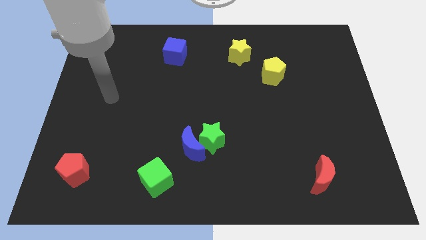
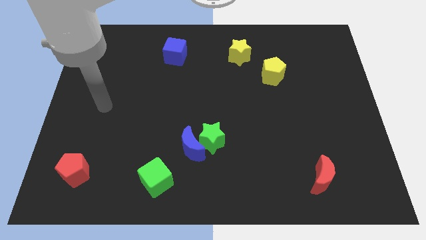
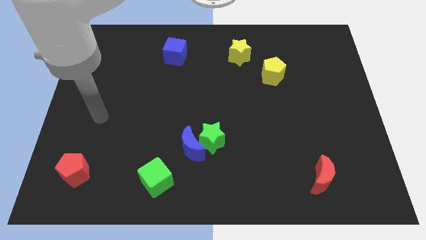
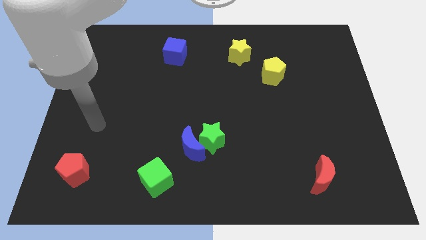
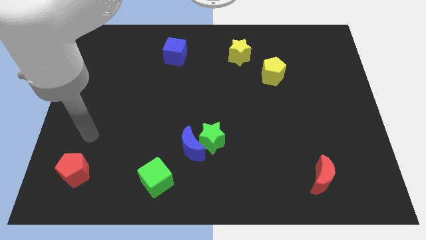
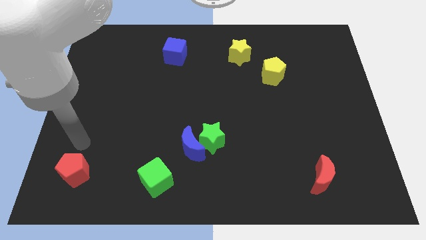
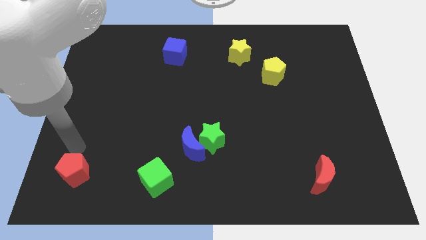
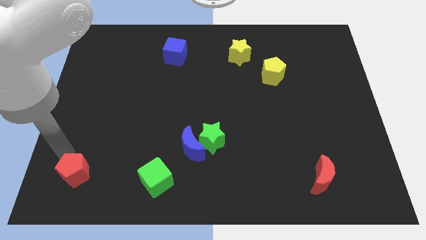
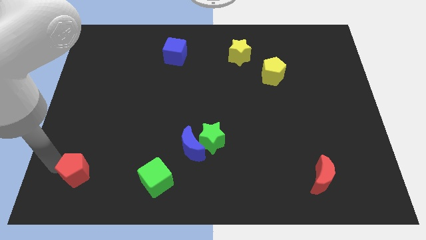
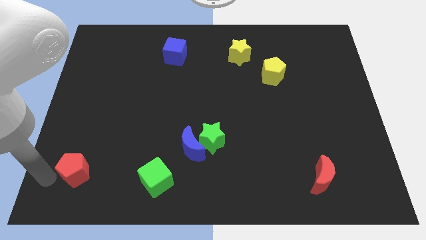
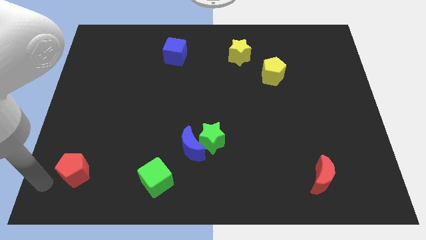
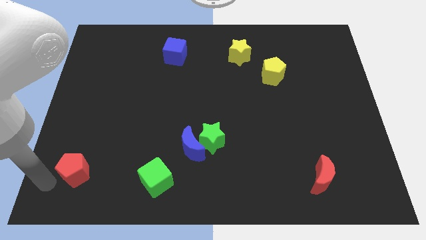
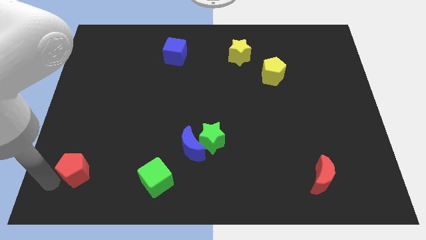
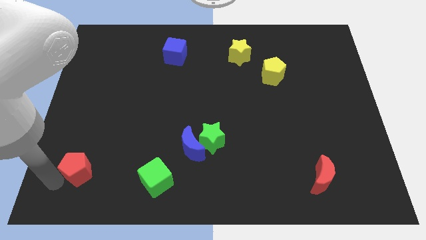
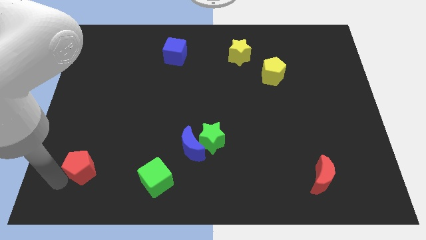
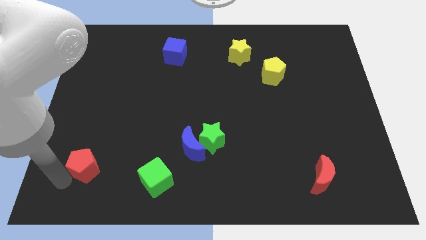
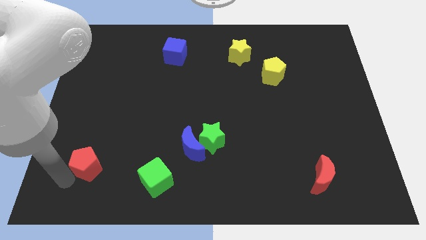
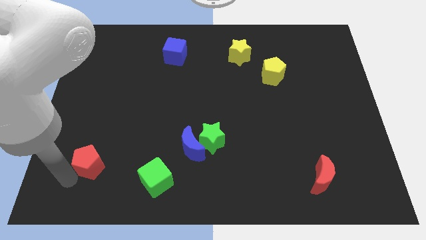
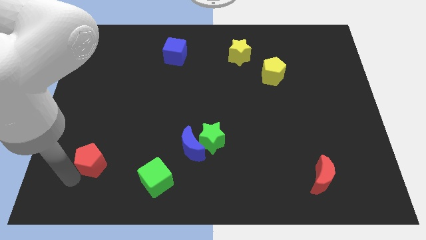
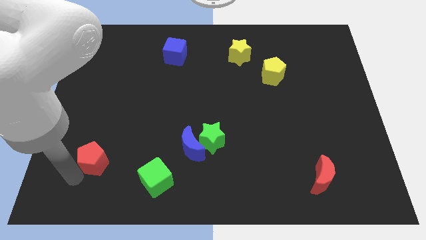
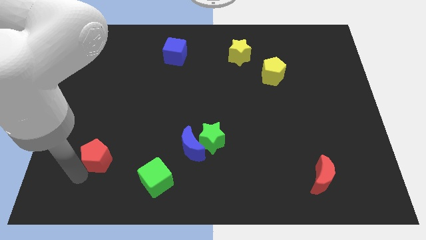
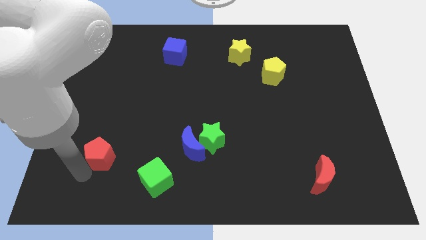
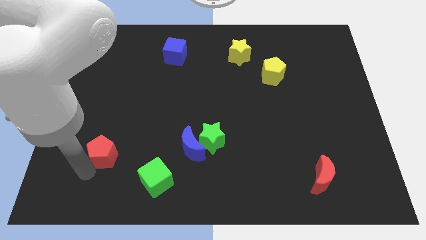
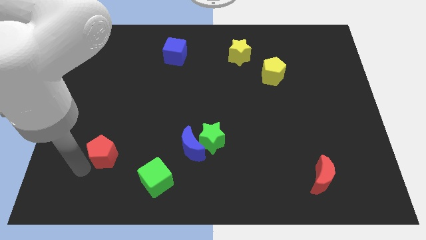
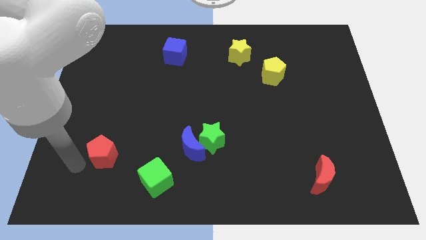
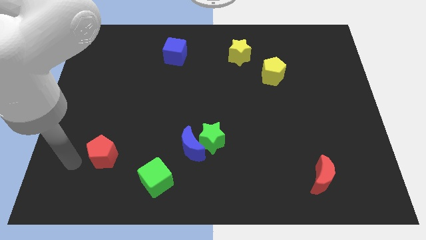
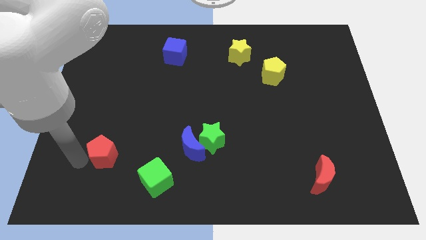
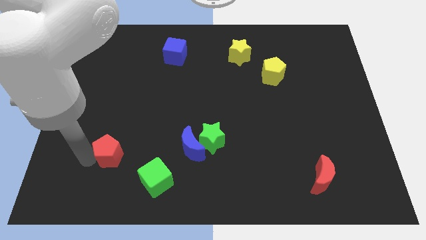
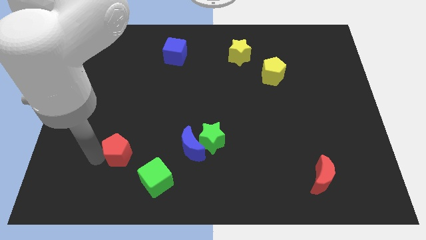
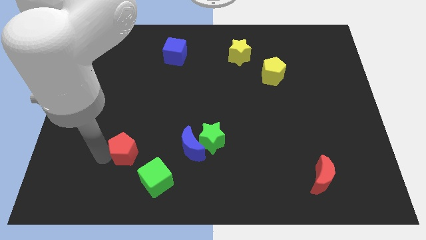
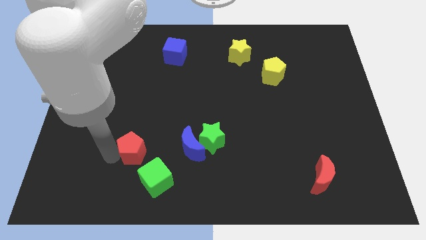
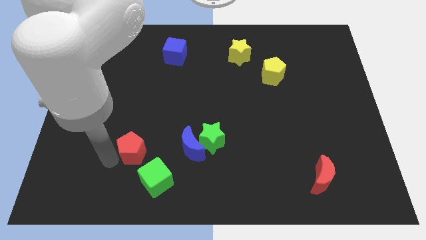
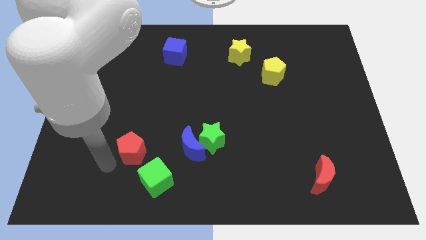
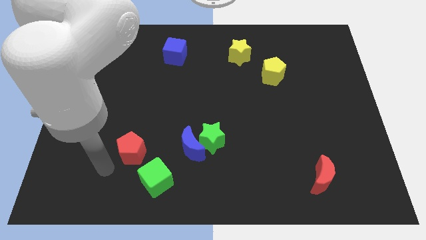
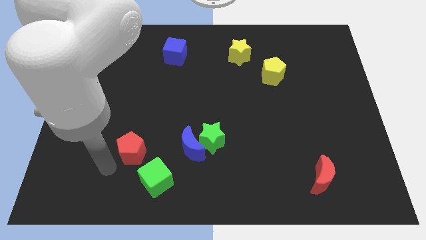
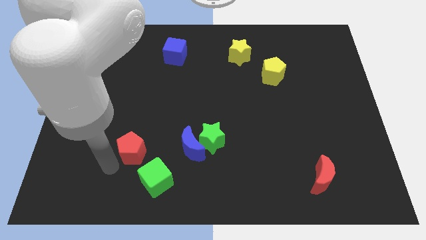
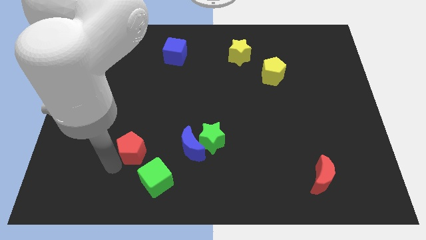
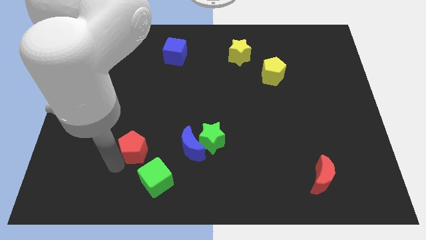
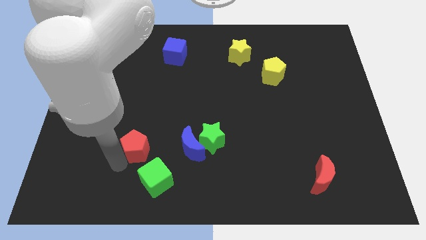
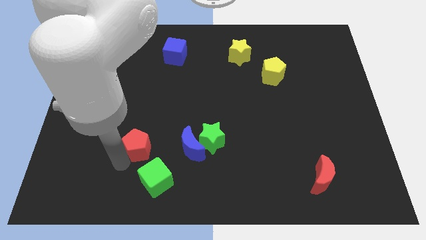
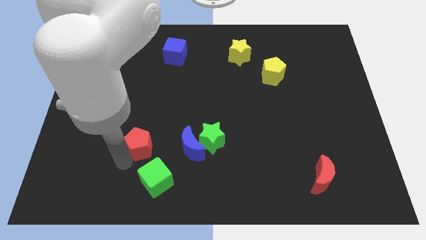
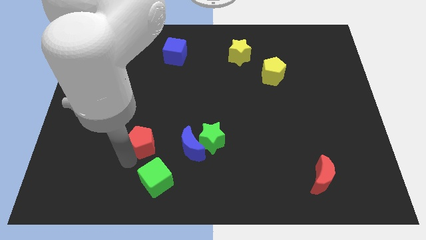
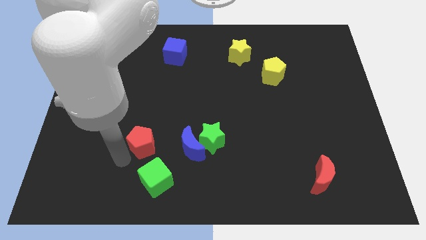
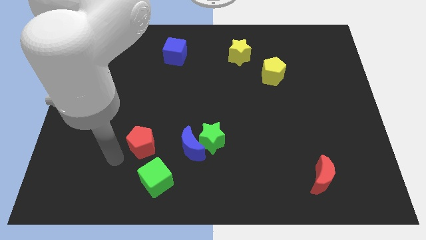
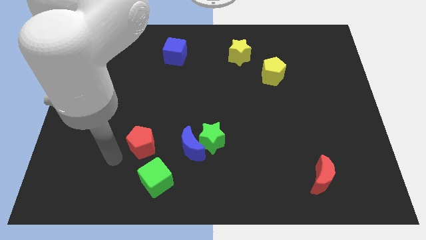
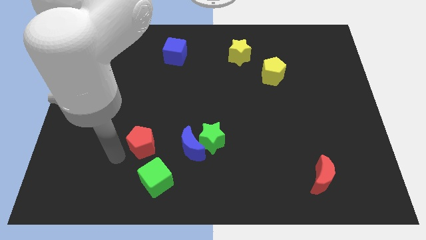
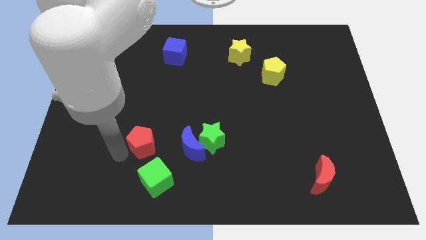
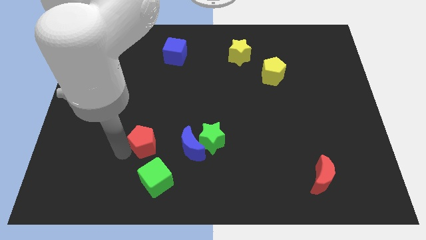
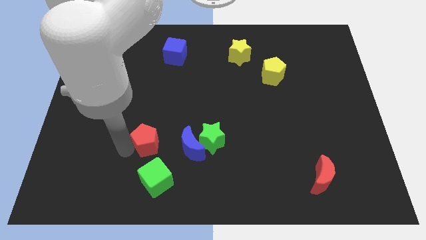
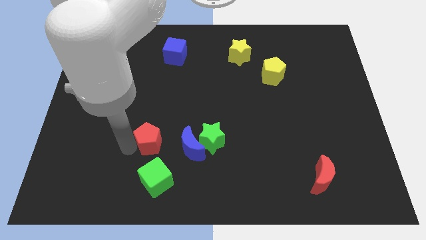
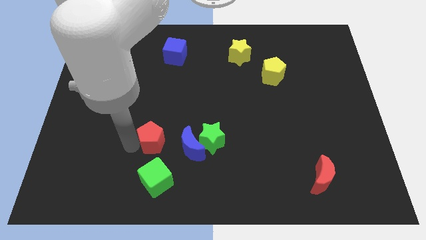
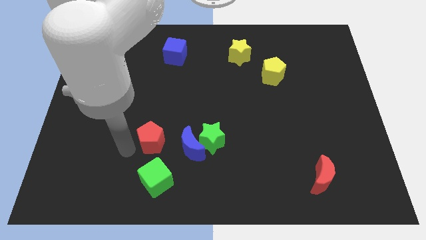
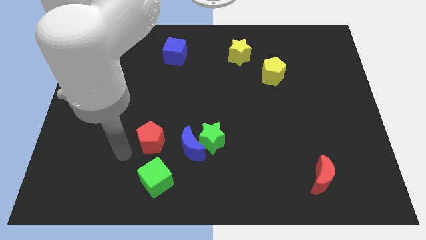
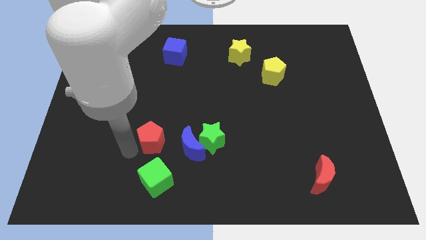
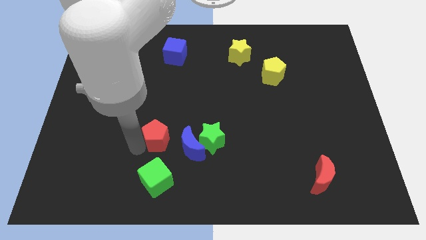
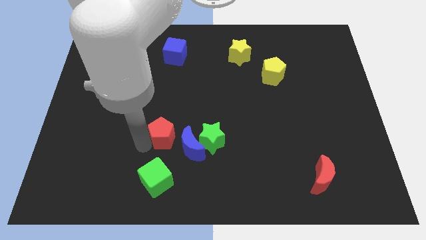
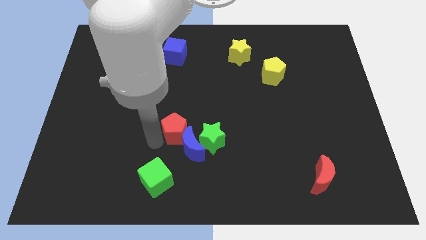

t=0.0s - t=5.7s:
move the red pentagon to the center of the board
